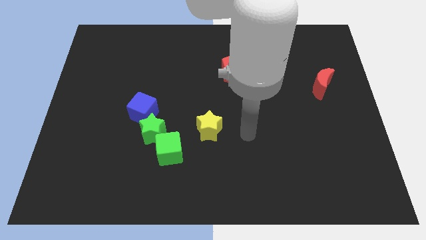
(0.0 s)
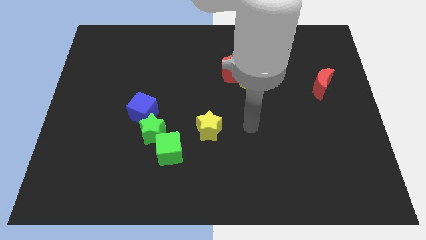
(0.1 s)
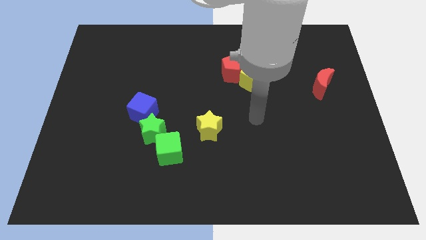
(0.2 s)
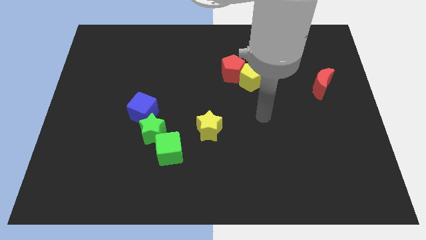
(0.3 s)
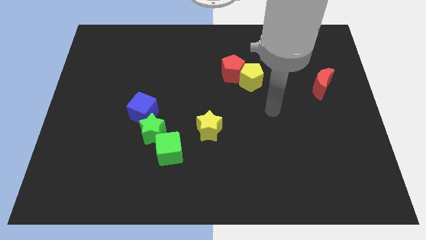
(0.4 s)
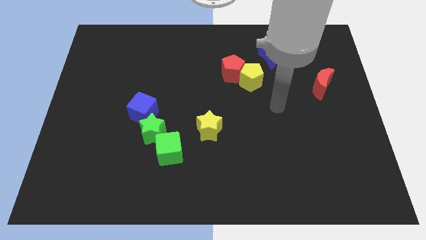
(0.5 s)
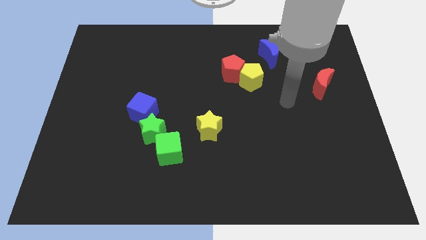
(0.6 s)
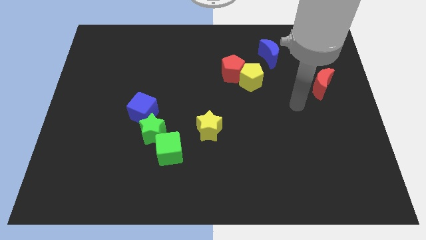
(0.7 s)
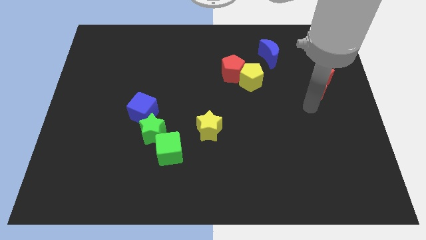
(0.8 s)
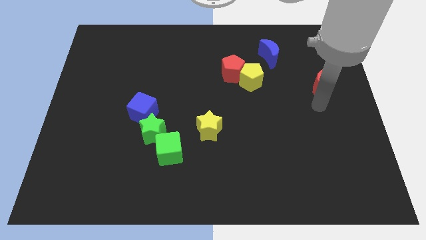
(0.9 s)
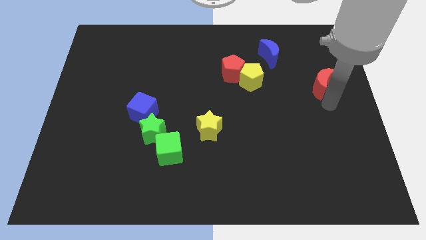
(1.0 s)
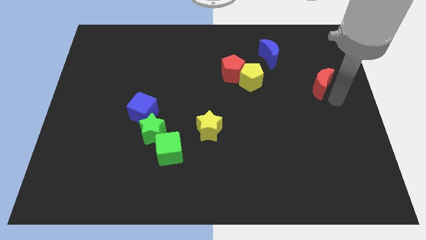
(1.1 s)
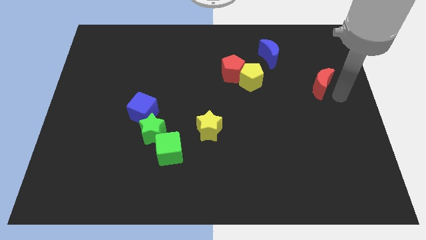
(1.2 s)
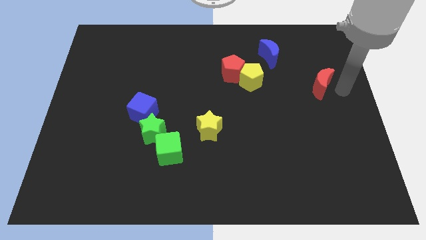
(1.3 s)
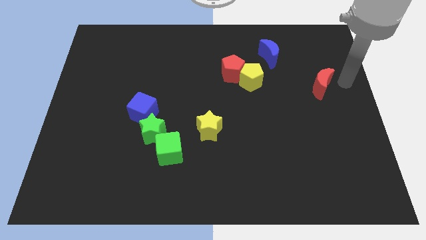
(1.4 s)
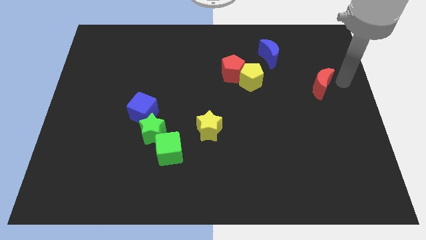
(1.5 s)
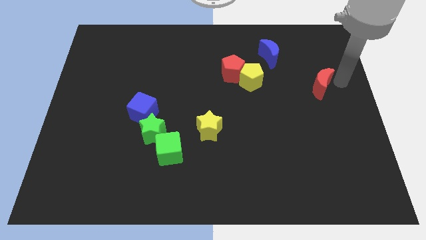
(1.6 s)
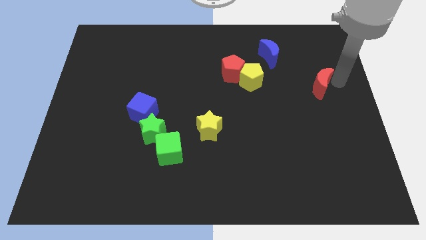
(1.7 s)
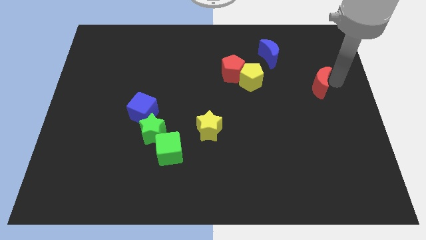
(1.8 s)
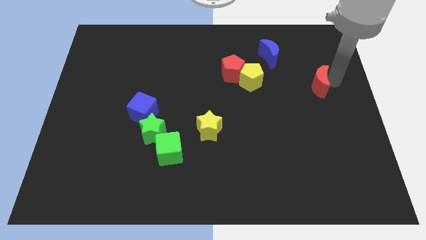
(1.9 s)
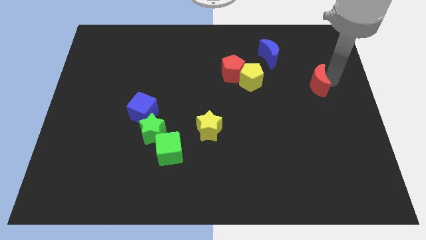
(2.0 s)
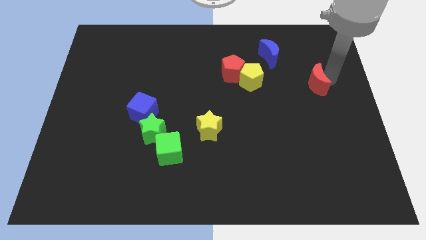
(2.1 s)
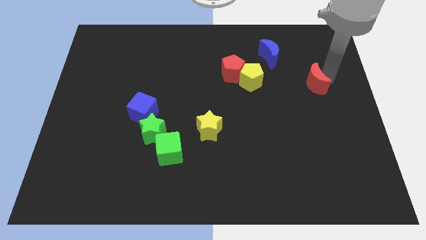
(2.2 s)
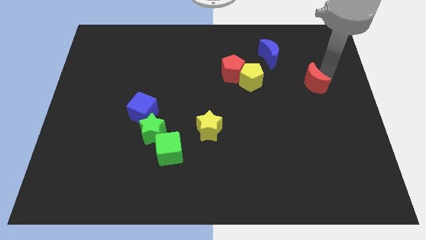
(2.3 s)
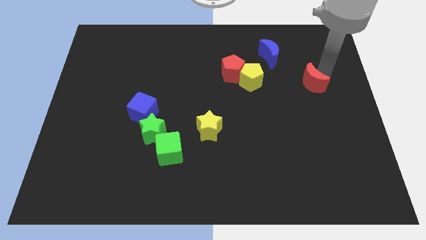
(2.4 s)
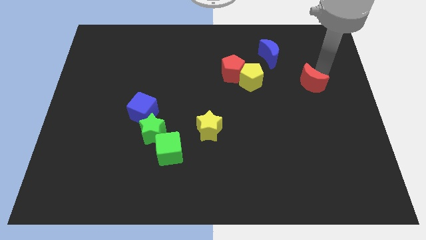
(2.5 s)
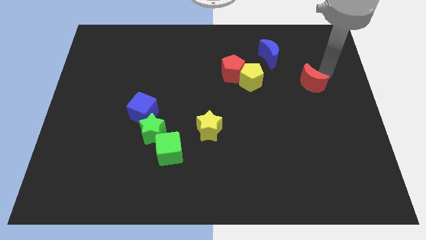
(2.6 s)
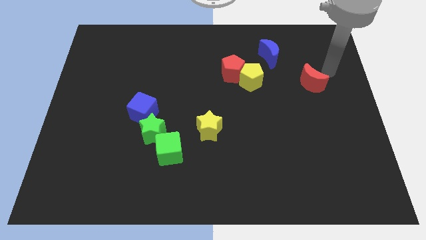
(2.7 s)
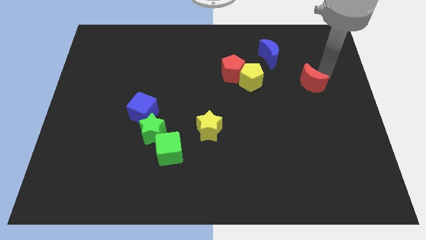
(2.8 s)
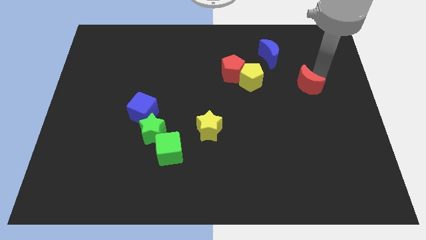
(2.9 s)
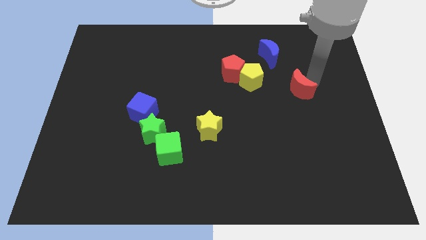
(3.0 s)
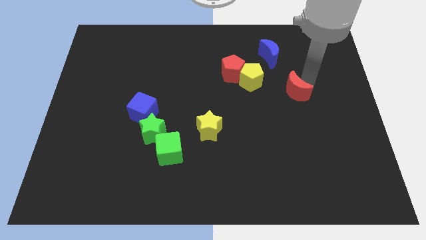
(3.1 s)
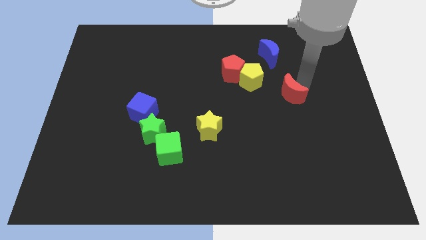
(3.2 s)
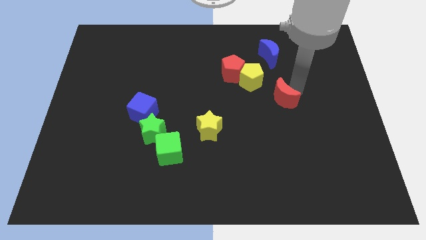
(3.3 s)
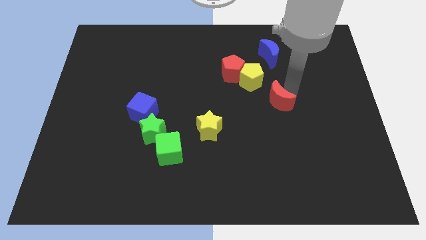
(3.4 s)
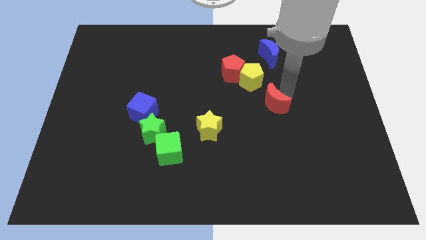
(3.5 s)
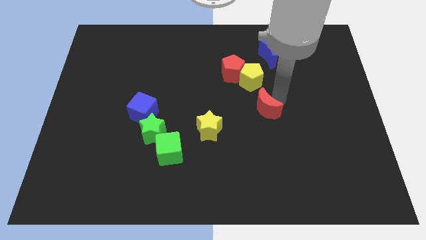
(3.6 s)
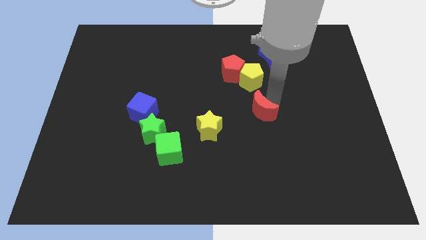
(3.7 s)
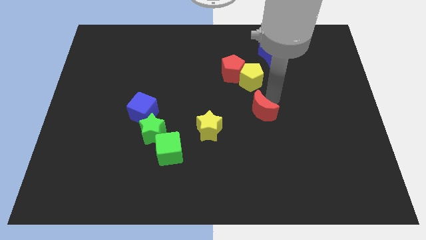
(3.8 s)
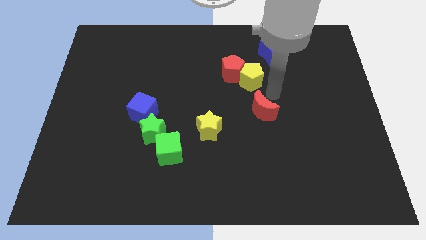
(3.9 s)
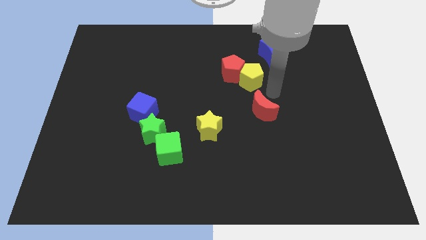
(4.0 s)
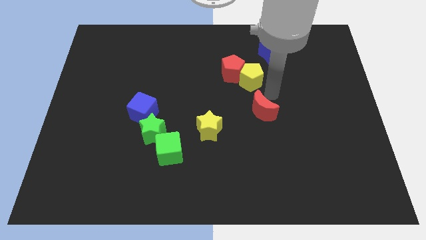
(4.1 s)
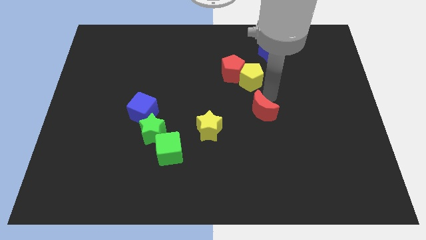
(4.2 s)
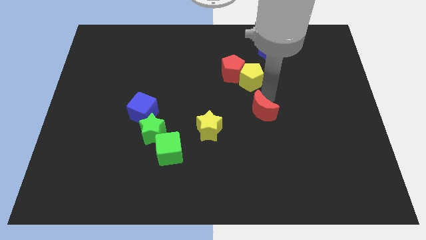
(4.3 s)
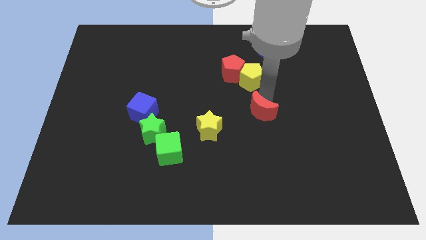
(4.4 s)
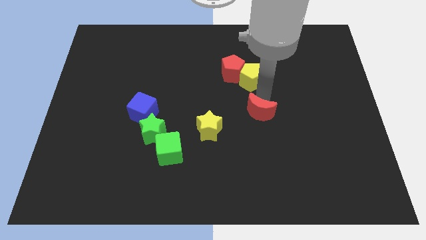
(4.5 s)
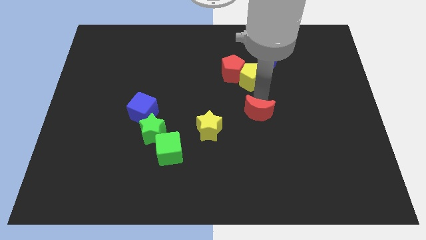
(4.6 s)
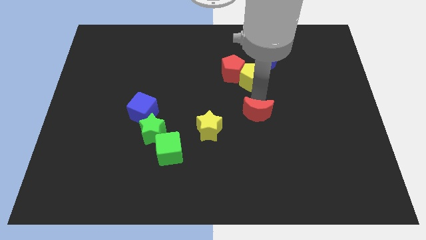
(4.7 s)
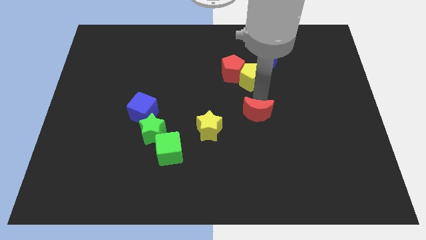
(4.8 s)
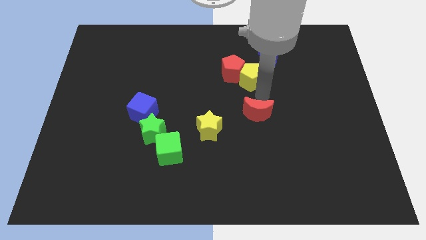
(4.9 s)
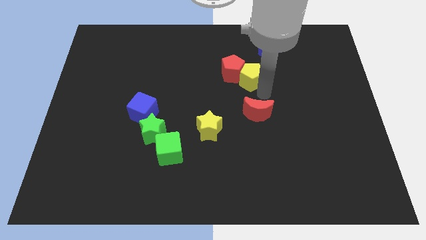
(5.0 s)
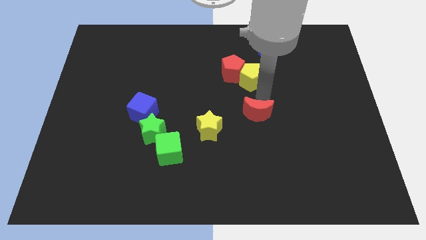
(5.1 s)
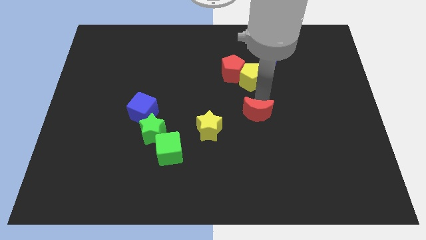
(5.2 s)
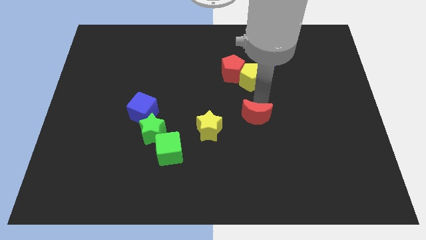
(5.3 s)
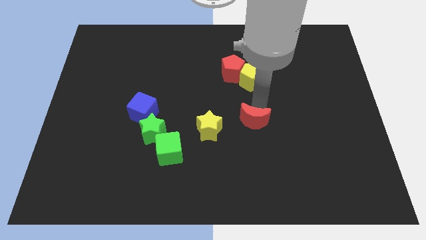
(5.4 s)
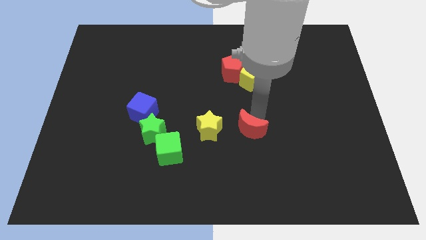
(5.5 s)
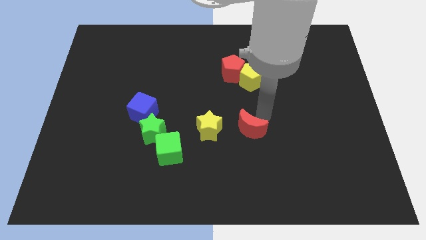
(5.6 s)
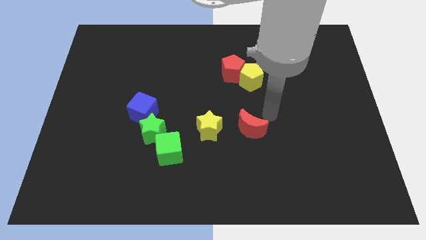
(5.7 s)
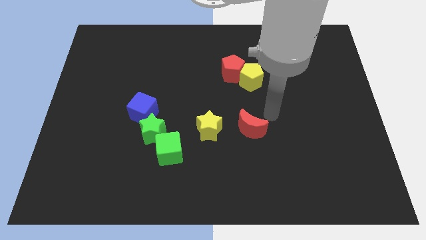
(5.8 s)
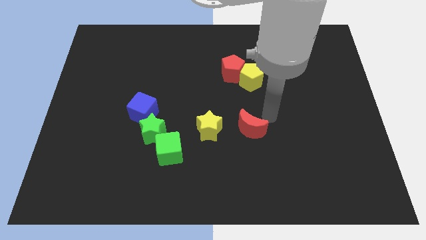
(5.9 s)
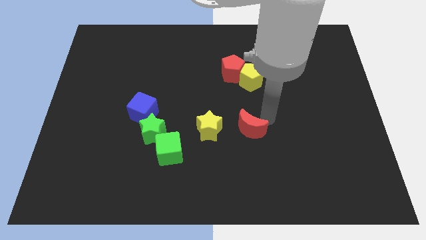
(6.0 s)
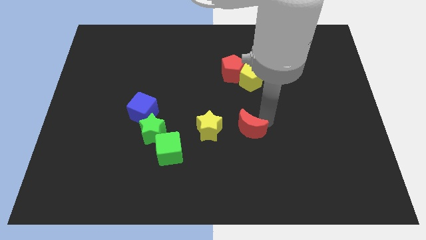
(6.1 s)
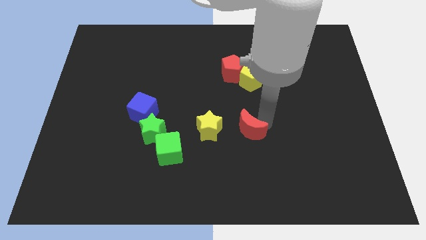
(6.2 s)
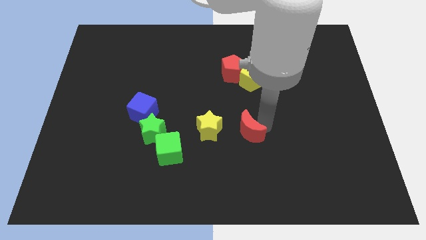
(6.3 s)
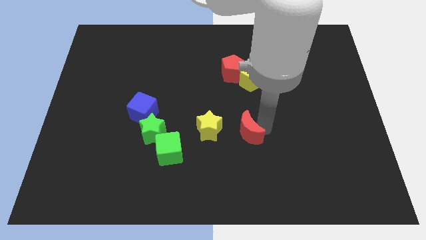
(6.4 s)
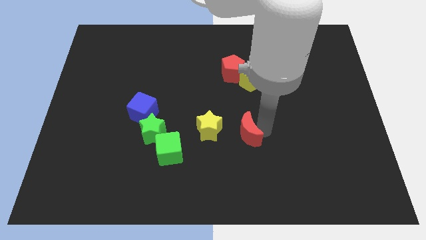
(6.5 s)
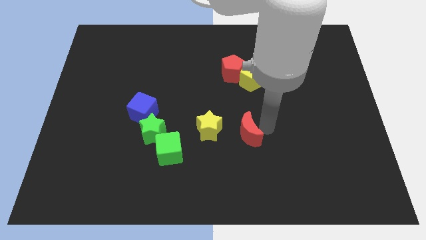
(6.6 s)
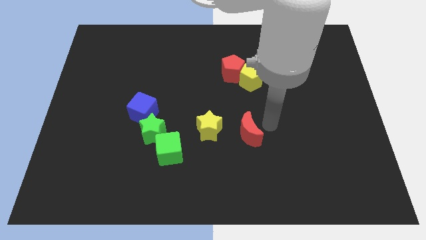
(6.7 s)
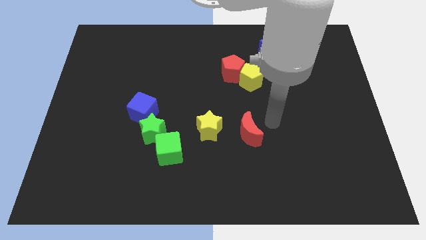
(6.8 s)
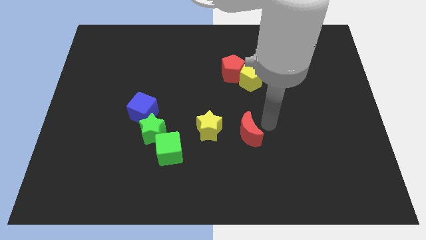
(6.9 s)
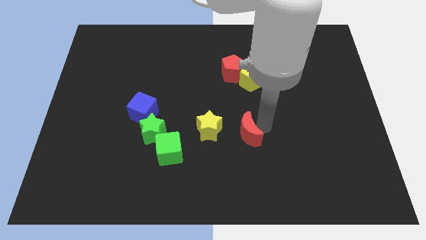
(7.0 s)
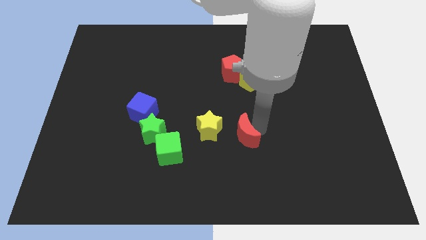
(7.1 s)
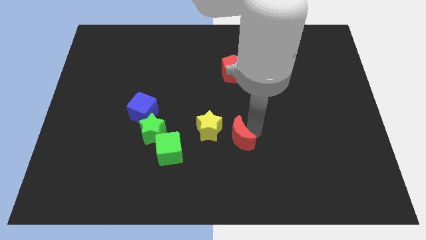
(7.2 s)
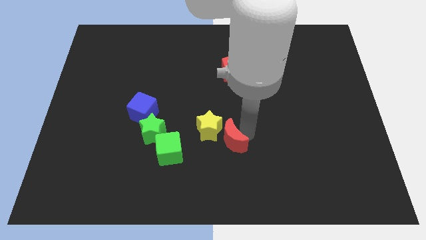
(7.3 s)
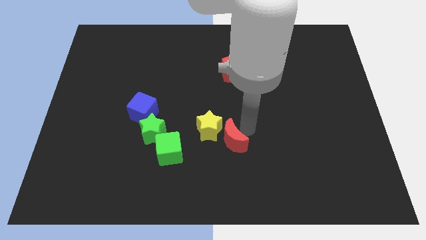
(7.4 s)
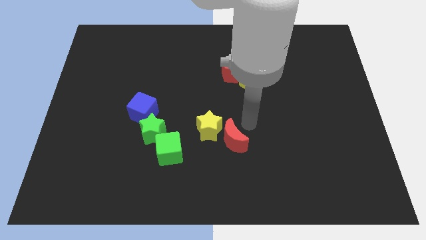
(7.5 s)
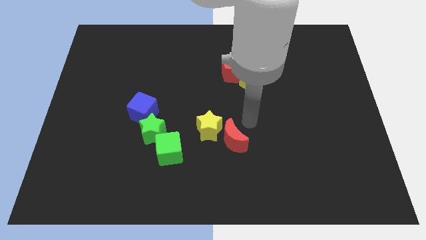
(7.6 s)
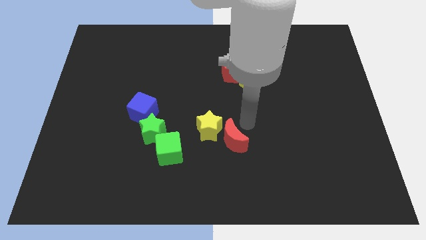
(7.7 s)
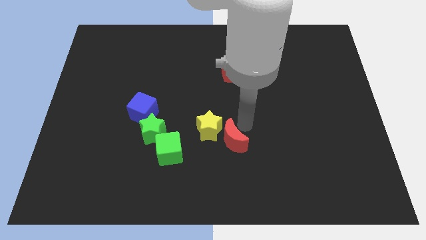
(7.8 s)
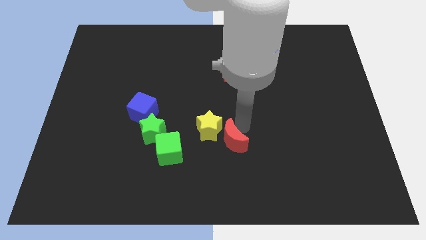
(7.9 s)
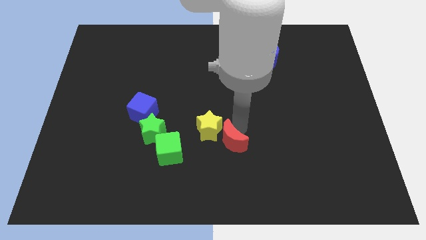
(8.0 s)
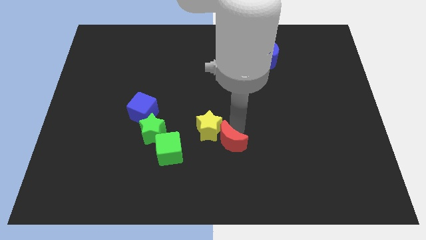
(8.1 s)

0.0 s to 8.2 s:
put the red moon below the yellow star
